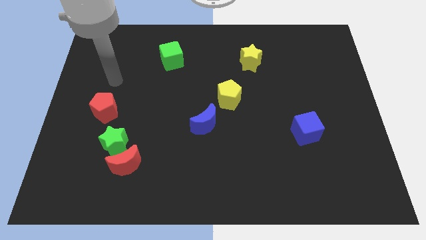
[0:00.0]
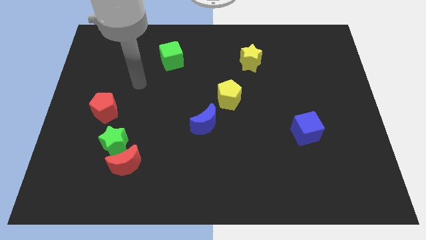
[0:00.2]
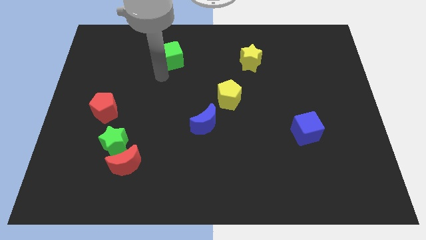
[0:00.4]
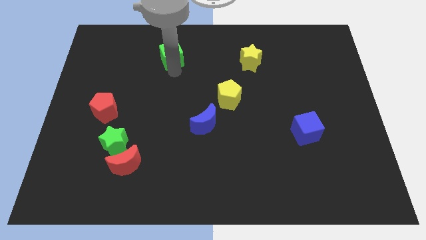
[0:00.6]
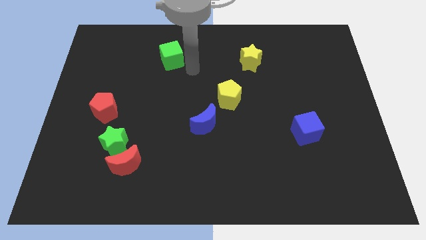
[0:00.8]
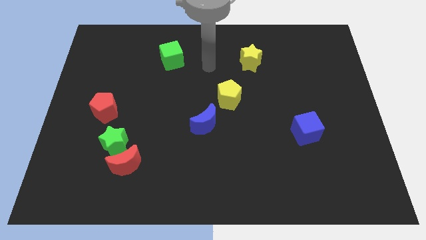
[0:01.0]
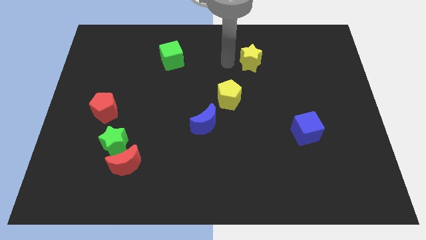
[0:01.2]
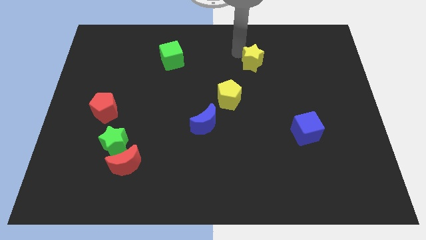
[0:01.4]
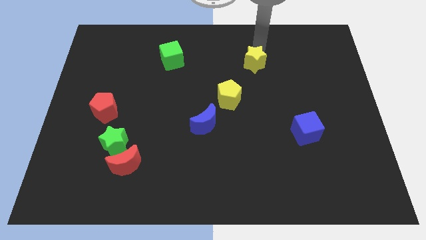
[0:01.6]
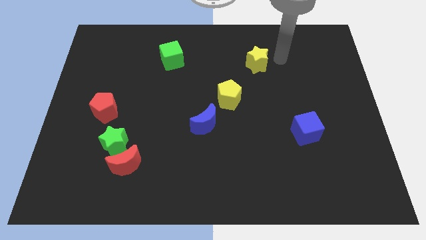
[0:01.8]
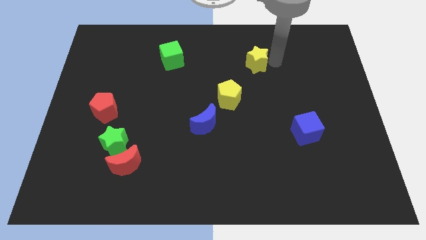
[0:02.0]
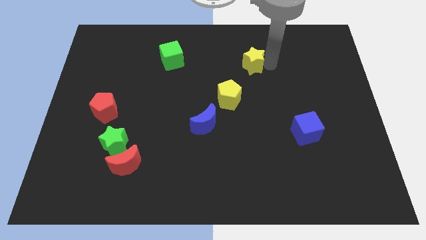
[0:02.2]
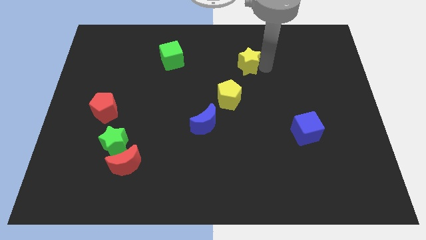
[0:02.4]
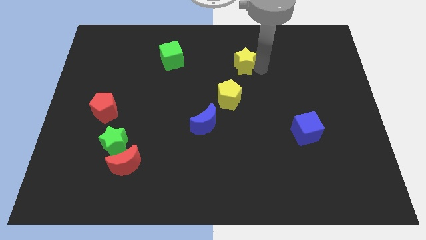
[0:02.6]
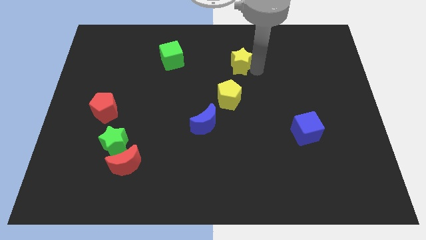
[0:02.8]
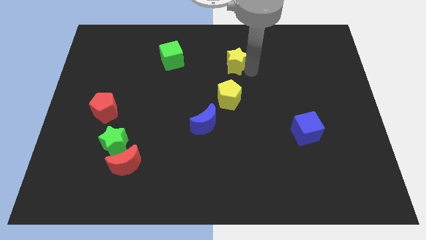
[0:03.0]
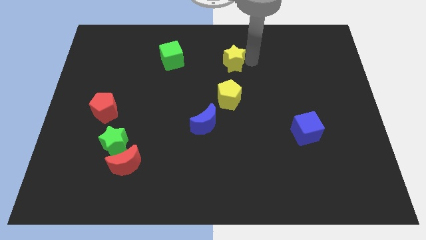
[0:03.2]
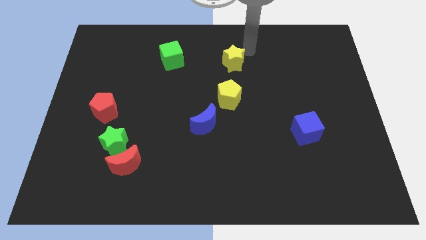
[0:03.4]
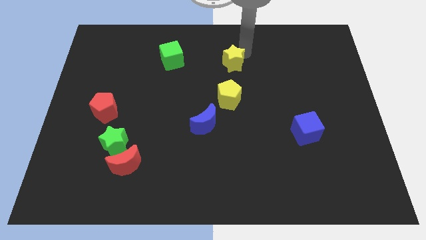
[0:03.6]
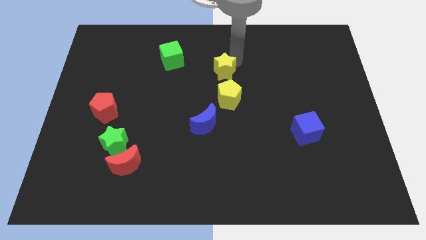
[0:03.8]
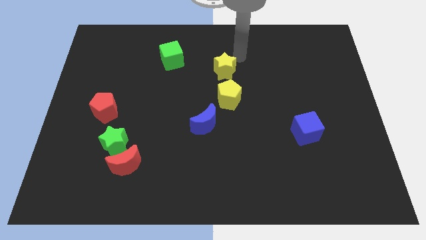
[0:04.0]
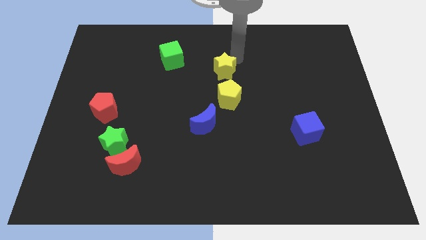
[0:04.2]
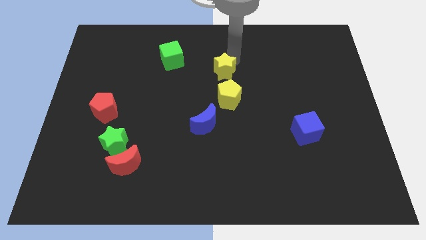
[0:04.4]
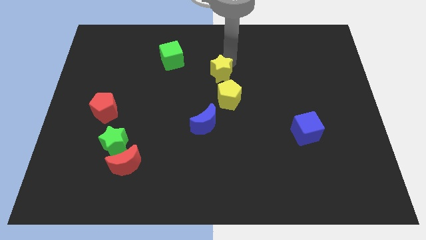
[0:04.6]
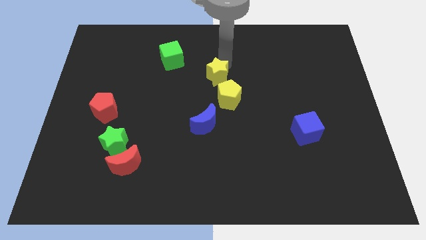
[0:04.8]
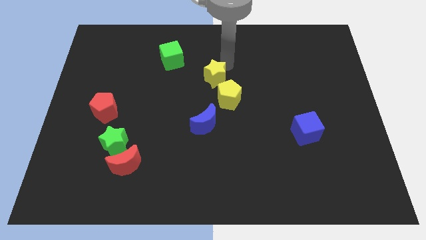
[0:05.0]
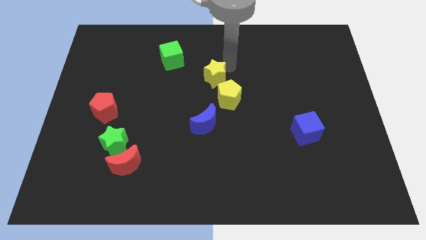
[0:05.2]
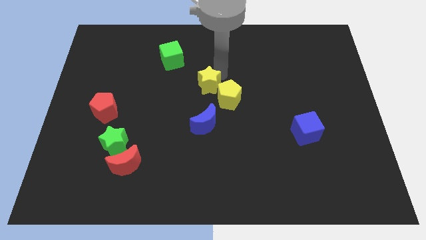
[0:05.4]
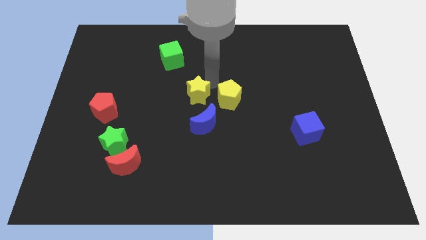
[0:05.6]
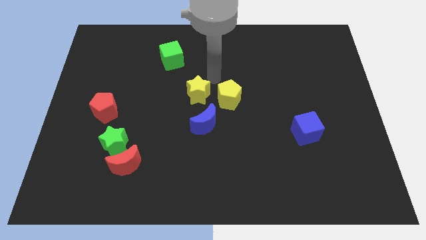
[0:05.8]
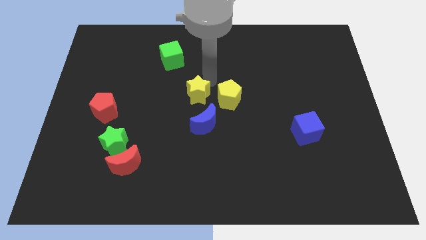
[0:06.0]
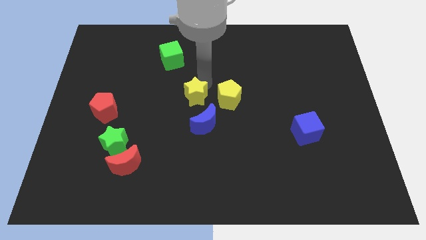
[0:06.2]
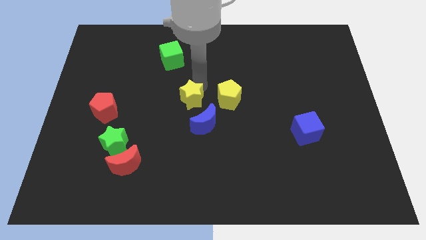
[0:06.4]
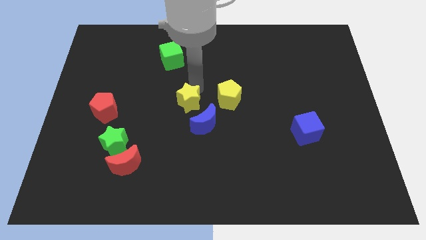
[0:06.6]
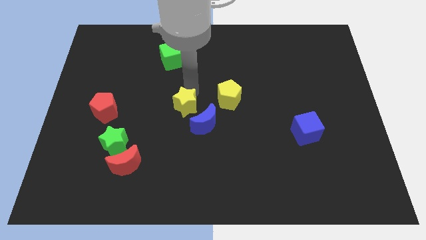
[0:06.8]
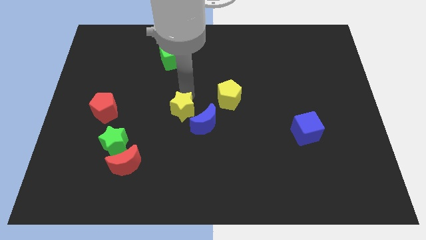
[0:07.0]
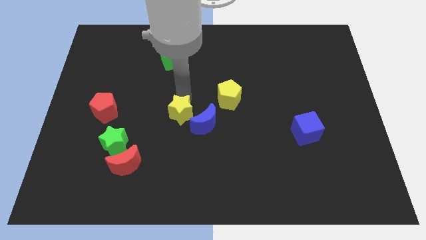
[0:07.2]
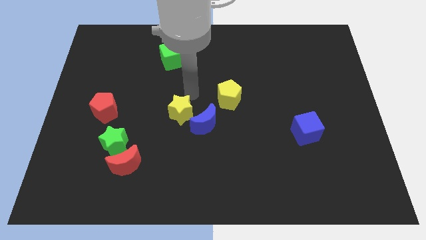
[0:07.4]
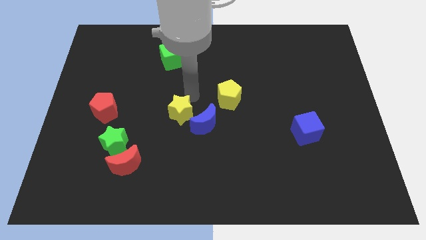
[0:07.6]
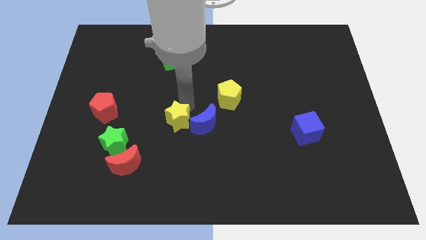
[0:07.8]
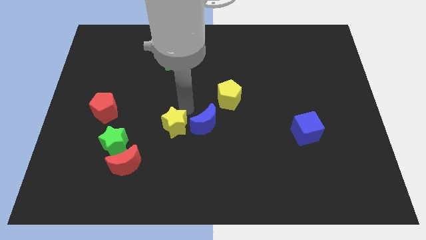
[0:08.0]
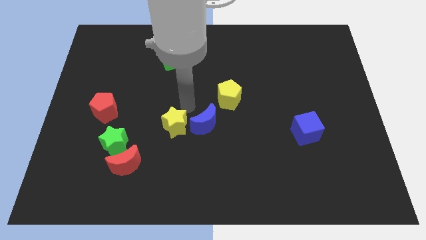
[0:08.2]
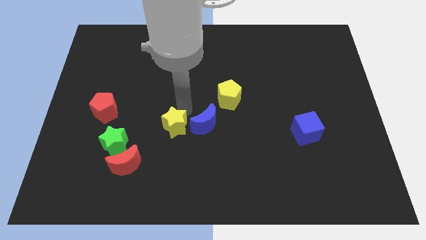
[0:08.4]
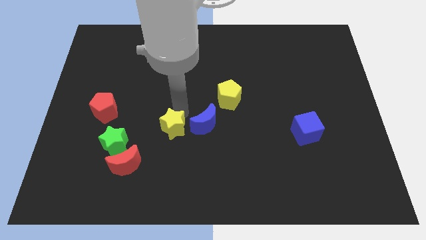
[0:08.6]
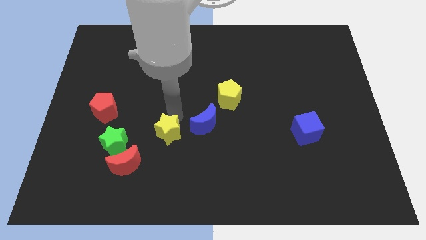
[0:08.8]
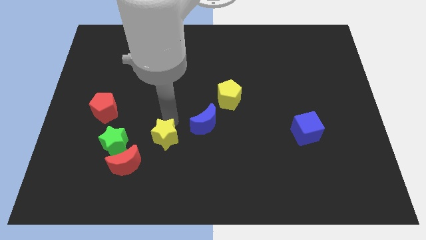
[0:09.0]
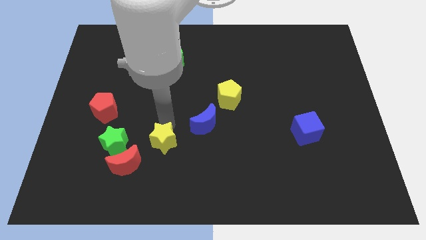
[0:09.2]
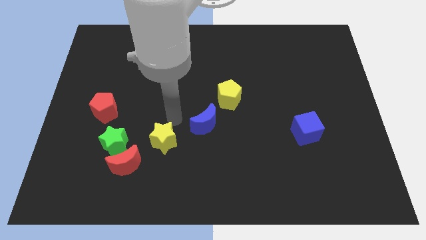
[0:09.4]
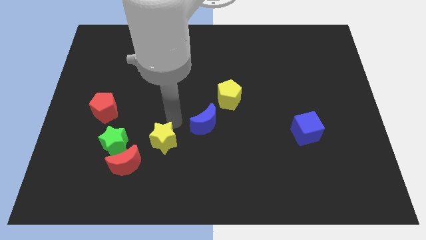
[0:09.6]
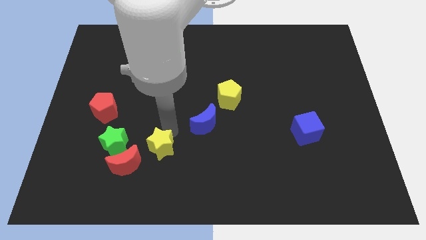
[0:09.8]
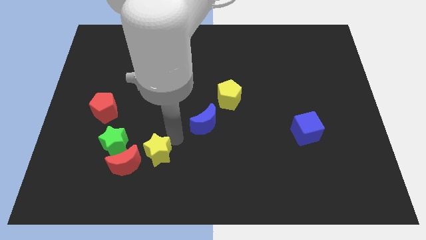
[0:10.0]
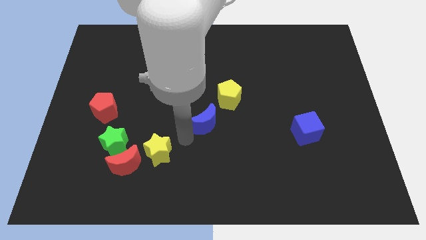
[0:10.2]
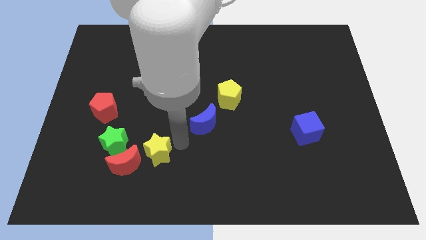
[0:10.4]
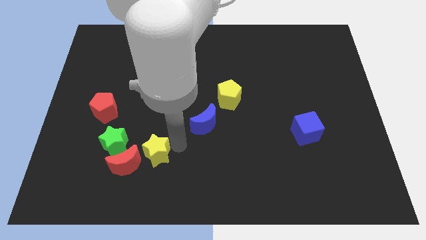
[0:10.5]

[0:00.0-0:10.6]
push the yellow star to the bottom right side of the green star

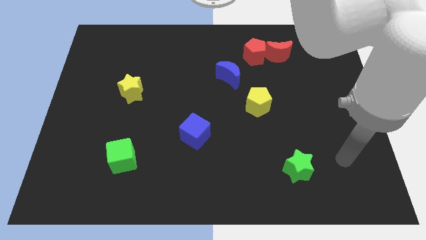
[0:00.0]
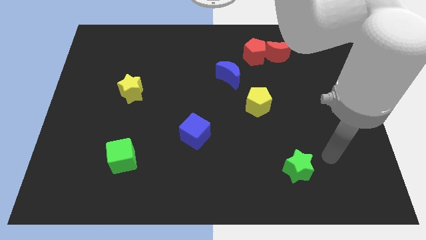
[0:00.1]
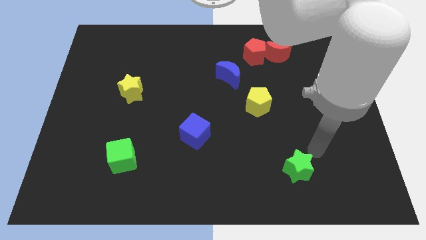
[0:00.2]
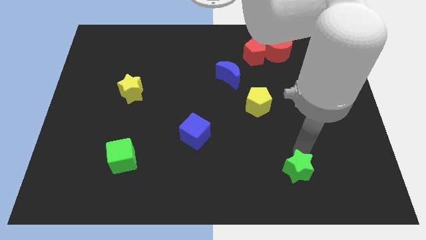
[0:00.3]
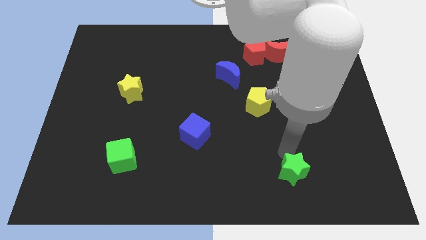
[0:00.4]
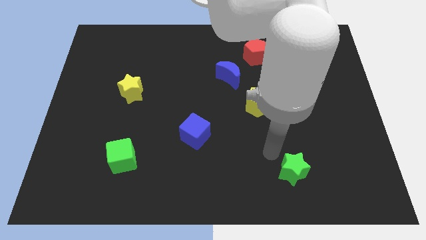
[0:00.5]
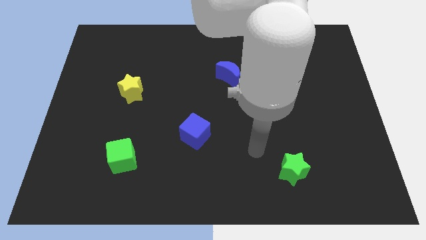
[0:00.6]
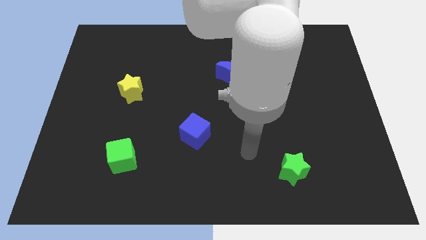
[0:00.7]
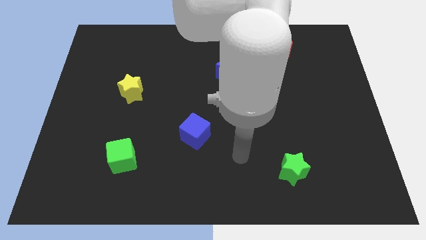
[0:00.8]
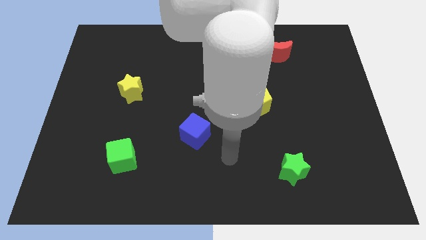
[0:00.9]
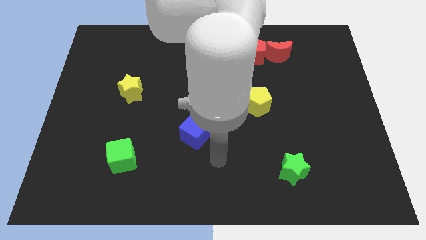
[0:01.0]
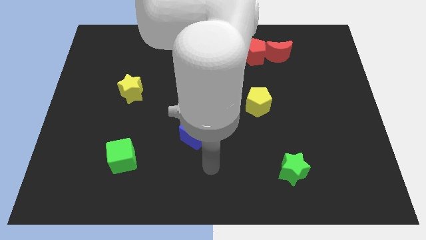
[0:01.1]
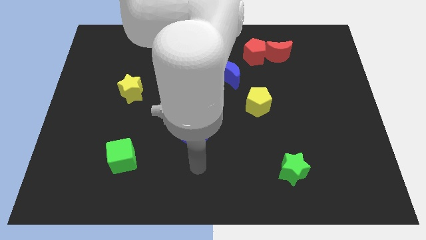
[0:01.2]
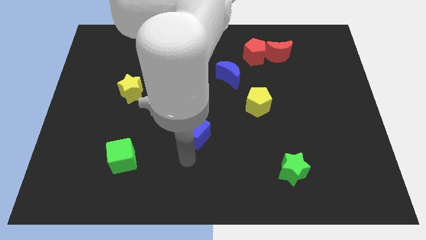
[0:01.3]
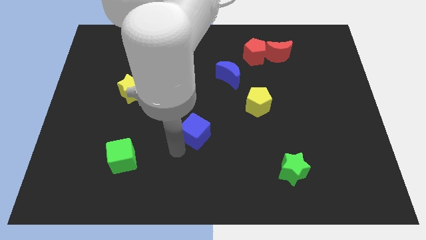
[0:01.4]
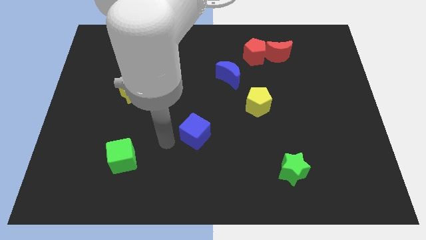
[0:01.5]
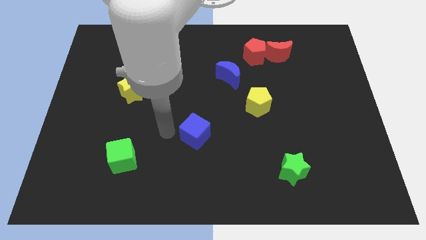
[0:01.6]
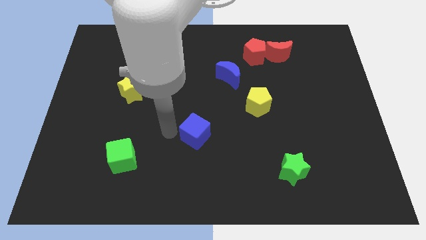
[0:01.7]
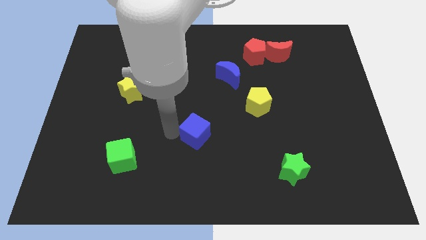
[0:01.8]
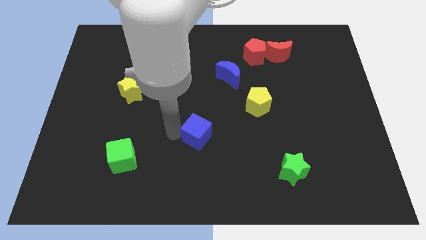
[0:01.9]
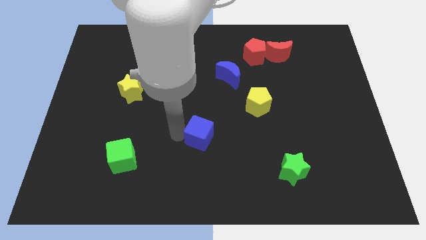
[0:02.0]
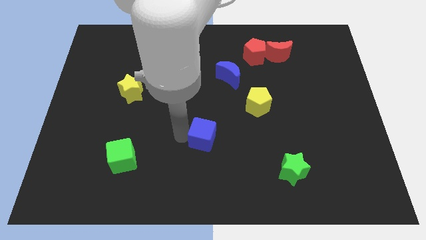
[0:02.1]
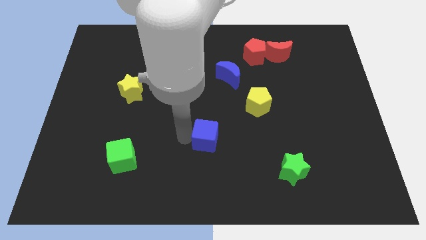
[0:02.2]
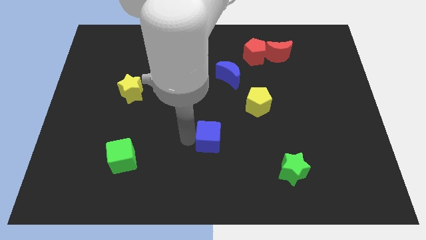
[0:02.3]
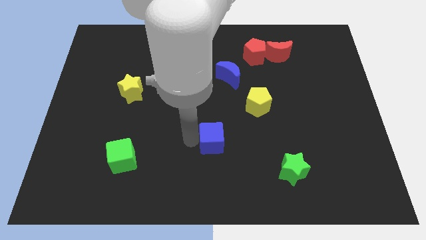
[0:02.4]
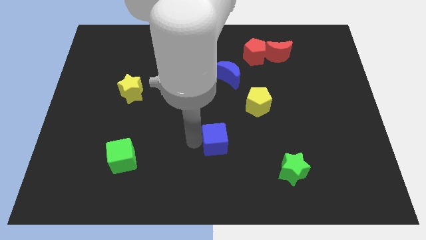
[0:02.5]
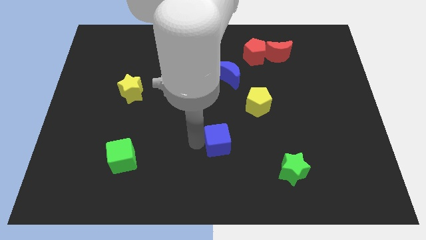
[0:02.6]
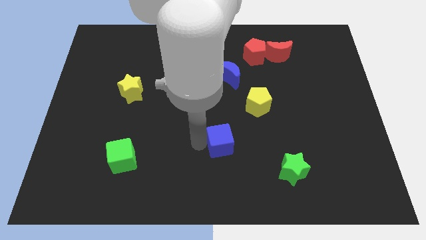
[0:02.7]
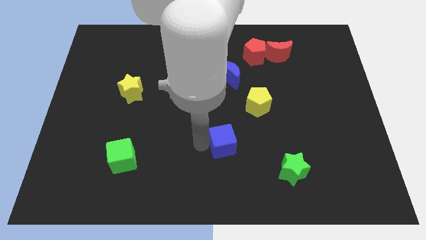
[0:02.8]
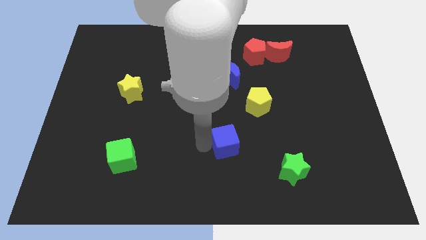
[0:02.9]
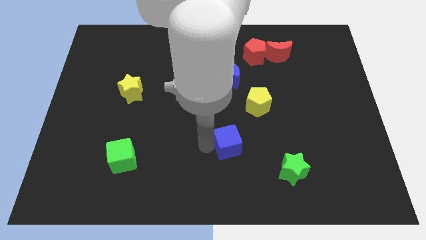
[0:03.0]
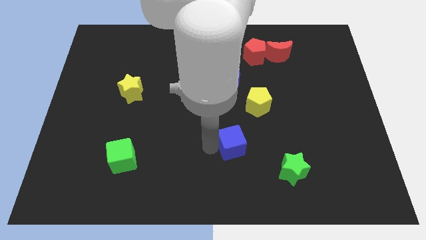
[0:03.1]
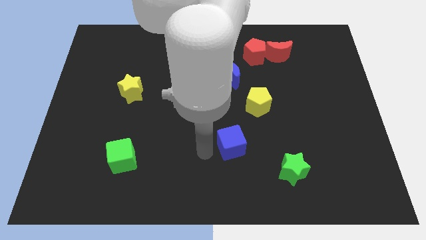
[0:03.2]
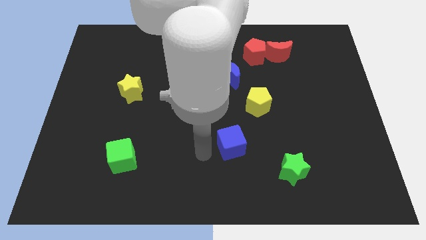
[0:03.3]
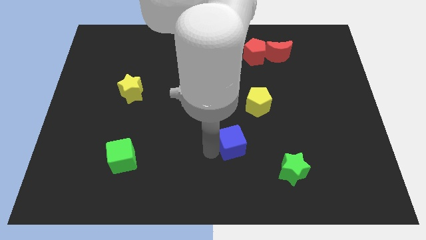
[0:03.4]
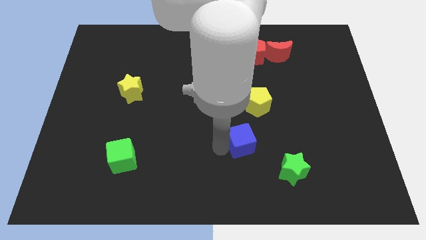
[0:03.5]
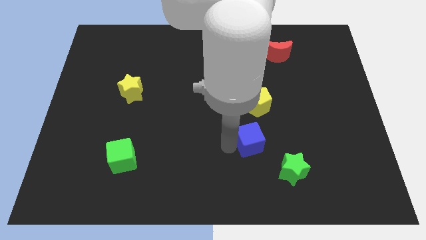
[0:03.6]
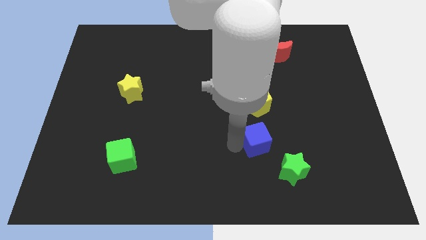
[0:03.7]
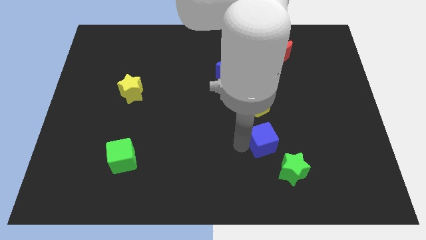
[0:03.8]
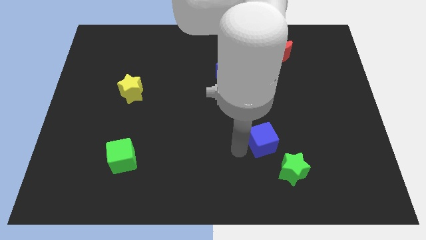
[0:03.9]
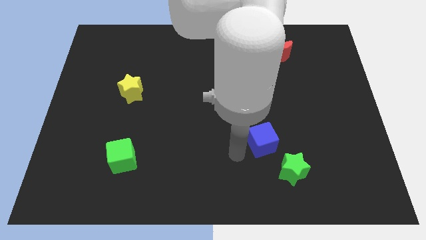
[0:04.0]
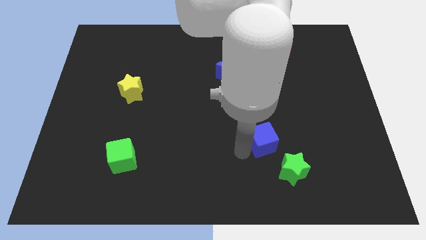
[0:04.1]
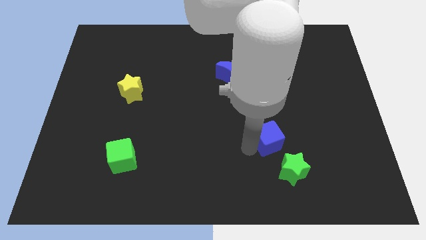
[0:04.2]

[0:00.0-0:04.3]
slide the blue cube to the top side of the green star
